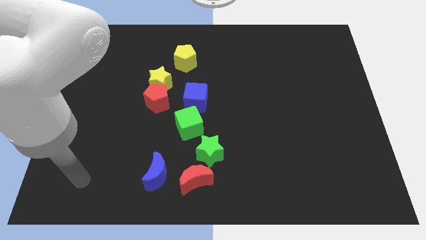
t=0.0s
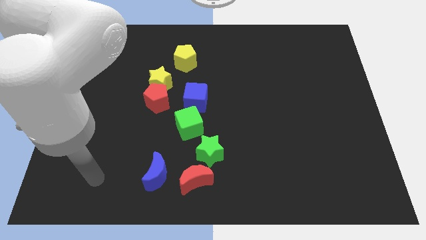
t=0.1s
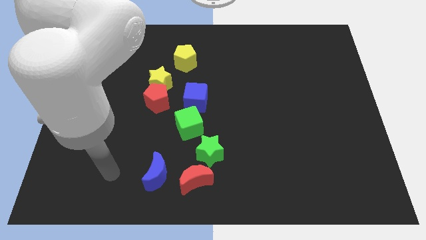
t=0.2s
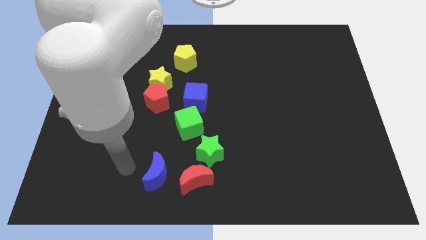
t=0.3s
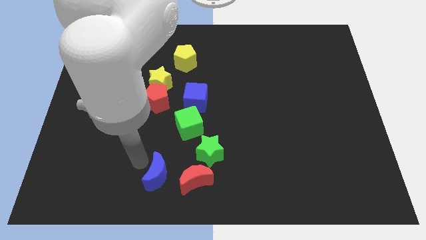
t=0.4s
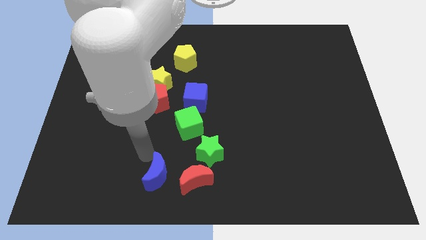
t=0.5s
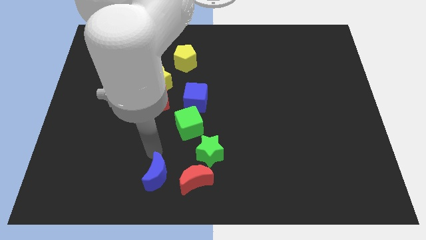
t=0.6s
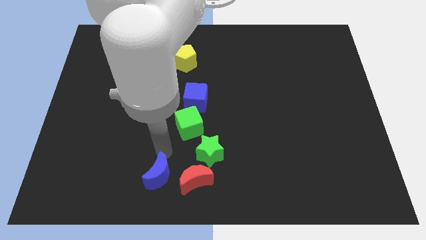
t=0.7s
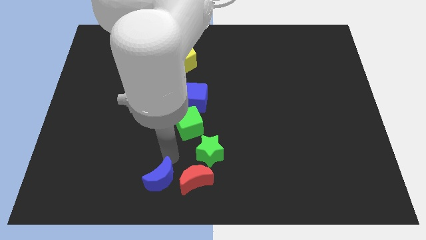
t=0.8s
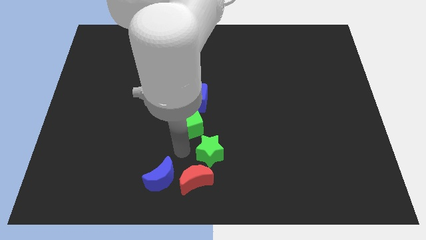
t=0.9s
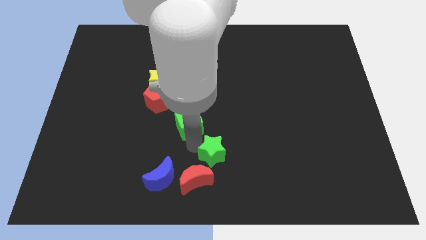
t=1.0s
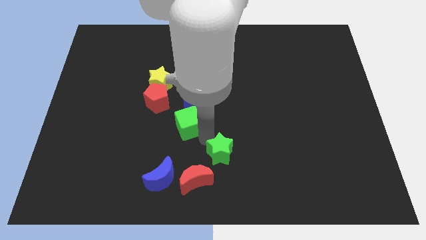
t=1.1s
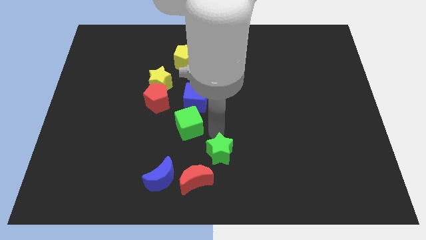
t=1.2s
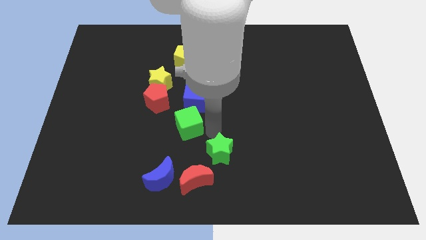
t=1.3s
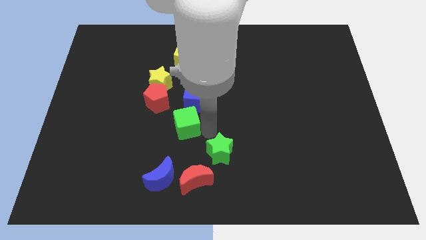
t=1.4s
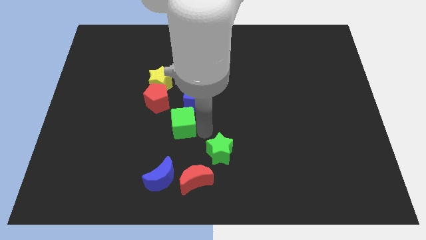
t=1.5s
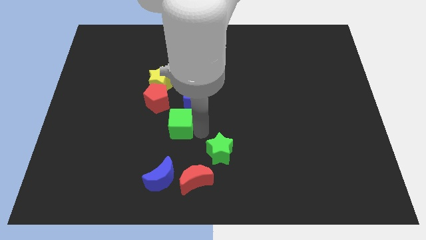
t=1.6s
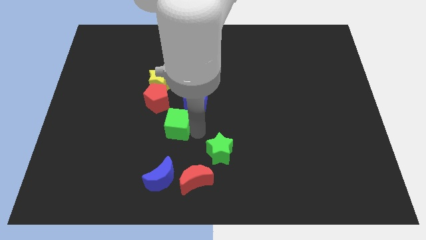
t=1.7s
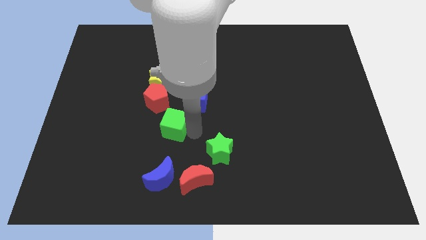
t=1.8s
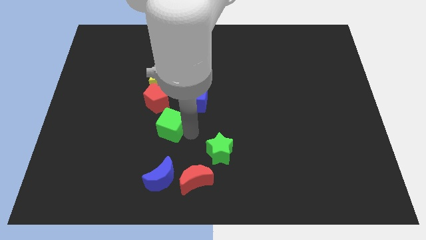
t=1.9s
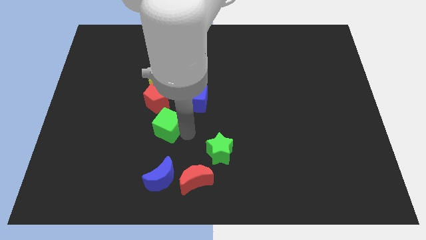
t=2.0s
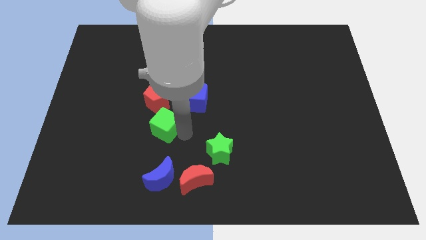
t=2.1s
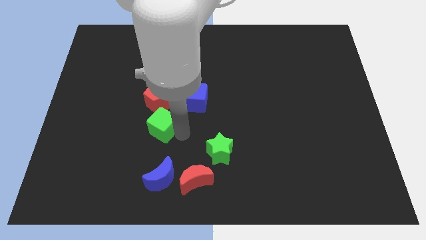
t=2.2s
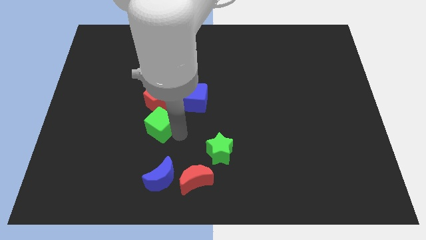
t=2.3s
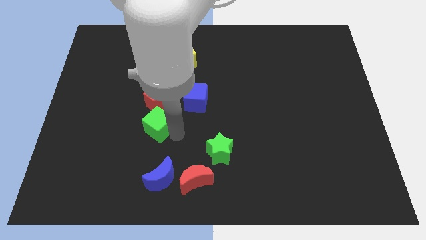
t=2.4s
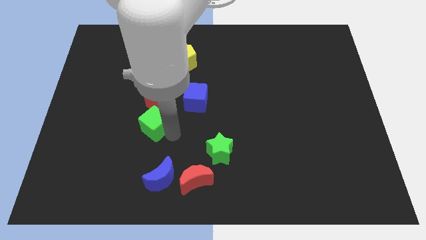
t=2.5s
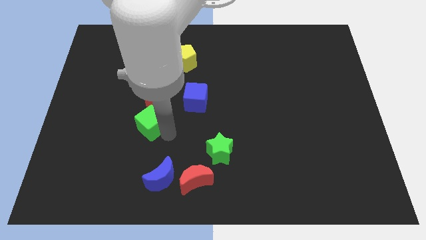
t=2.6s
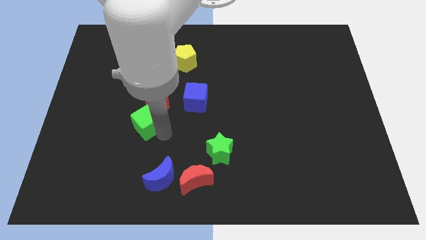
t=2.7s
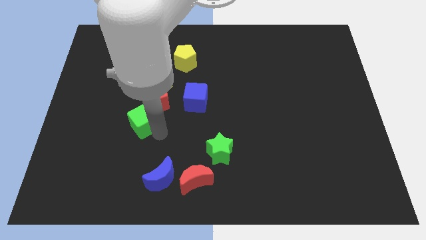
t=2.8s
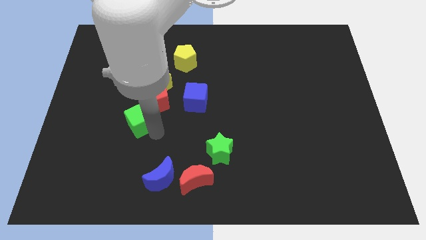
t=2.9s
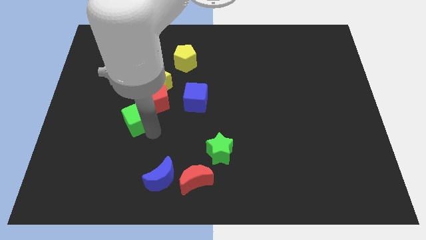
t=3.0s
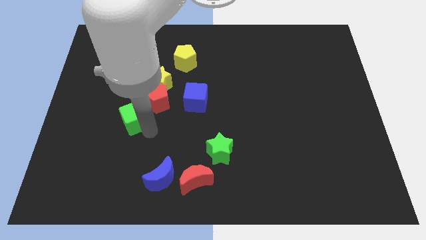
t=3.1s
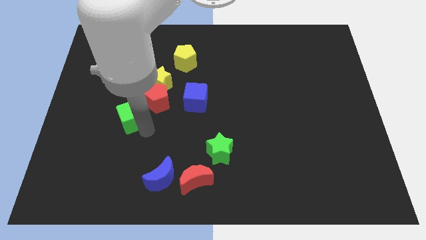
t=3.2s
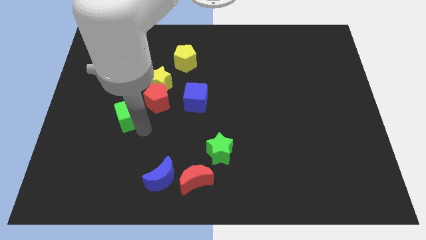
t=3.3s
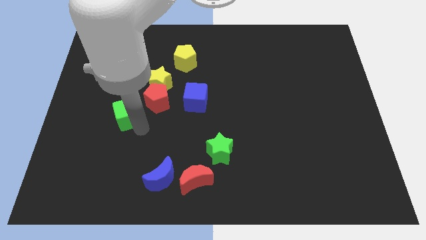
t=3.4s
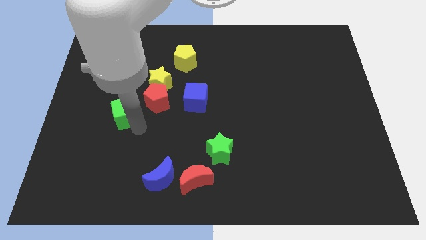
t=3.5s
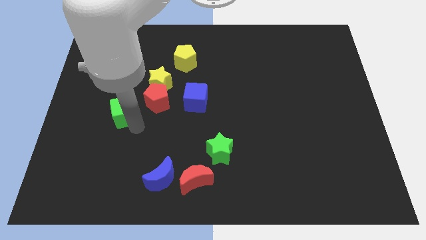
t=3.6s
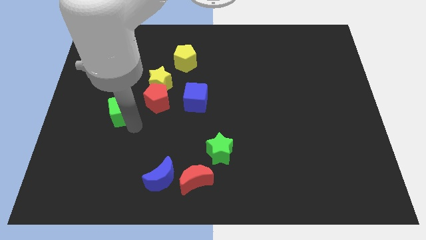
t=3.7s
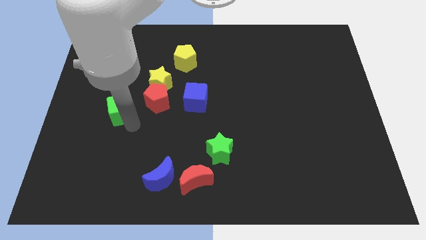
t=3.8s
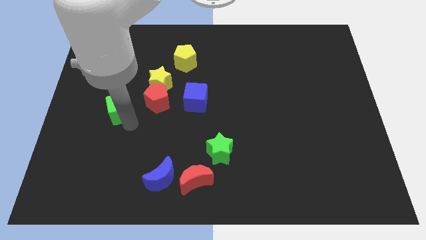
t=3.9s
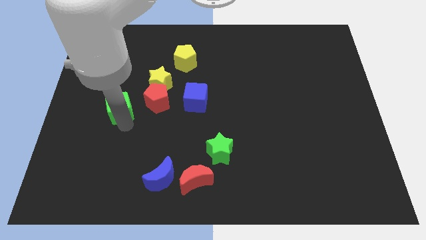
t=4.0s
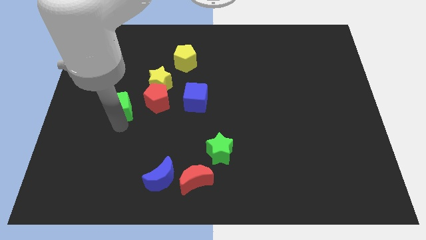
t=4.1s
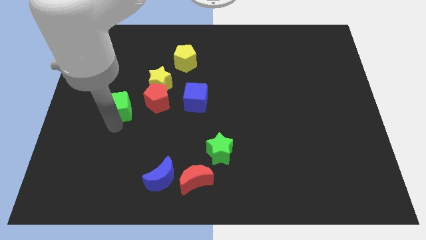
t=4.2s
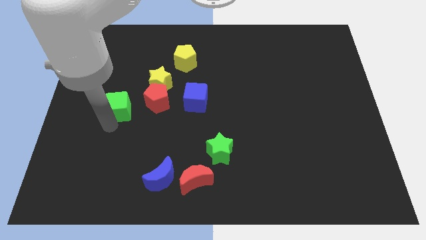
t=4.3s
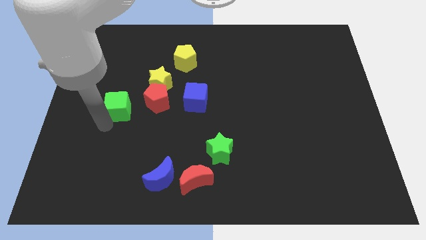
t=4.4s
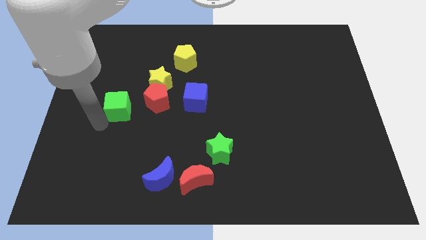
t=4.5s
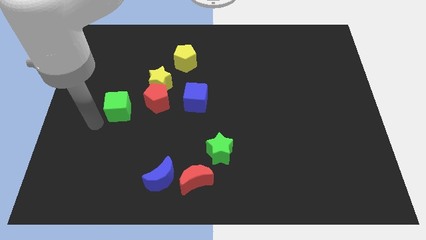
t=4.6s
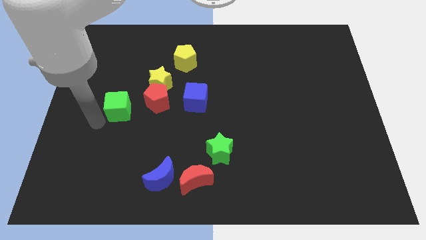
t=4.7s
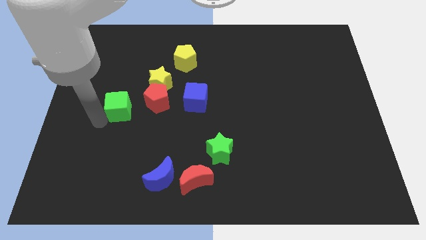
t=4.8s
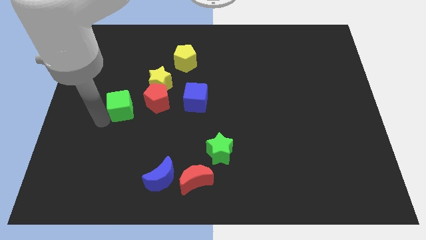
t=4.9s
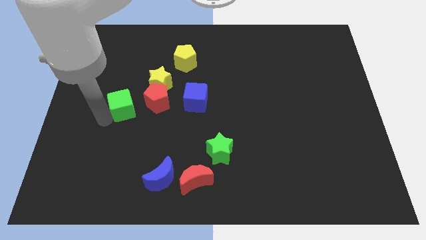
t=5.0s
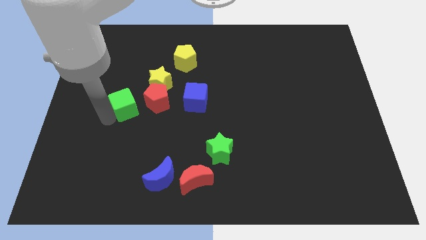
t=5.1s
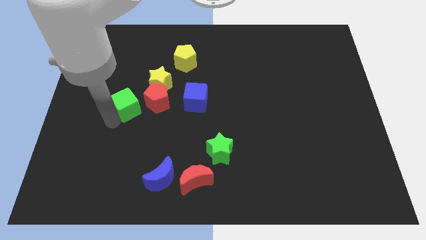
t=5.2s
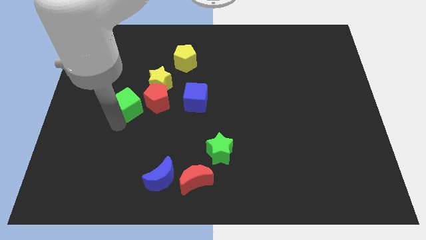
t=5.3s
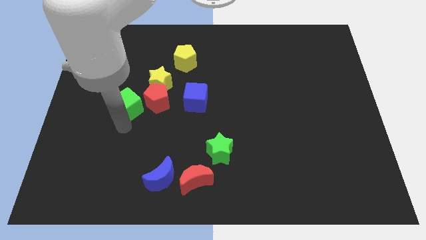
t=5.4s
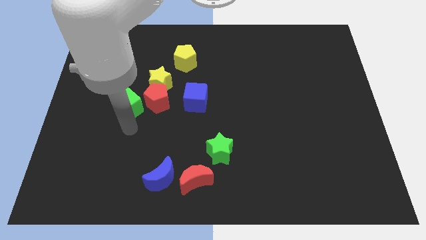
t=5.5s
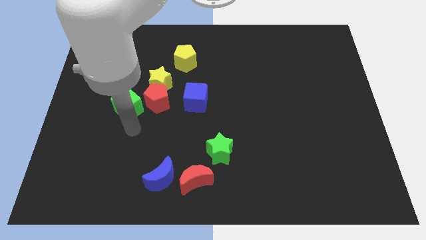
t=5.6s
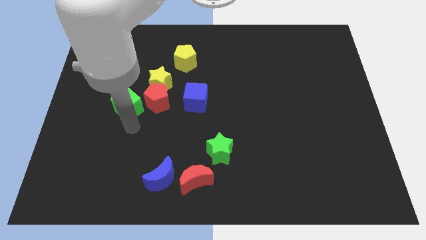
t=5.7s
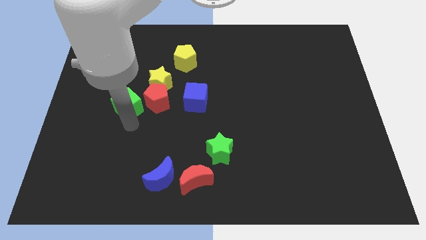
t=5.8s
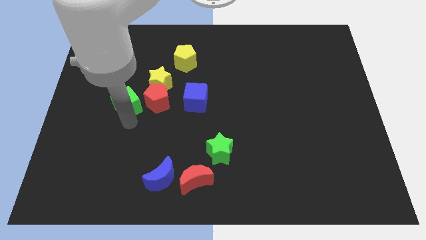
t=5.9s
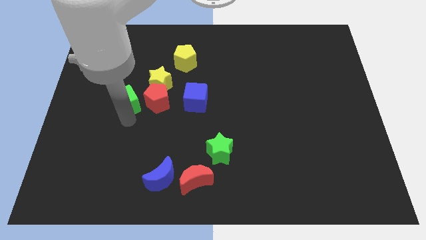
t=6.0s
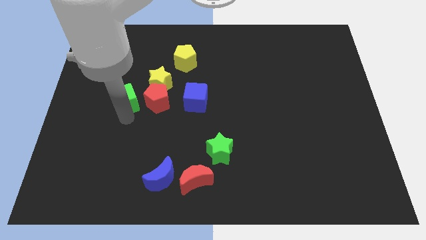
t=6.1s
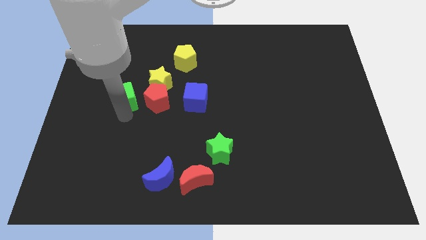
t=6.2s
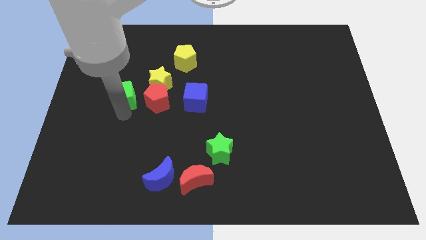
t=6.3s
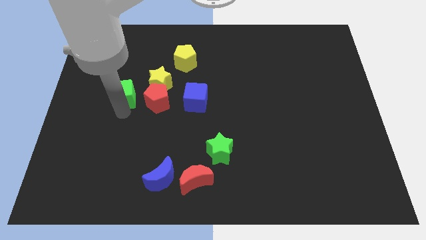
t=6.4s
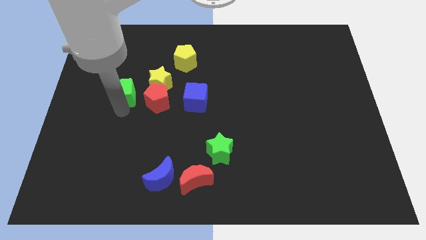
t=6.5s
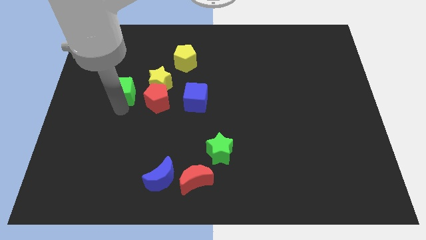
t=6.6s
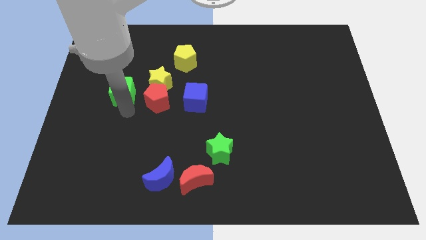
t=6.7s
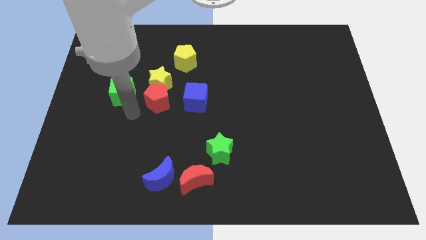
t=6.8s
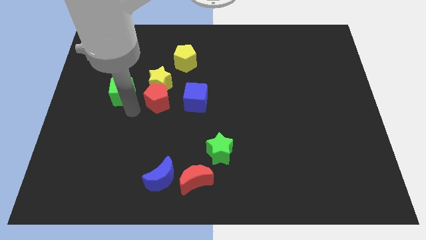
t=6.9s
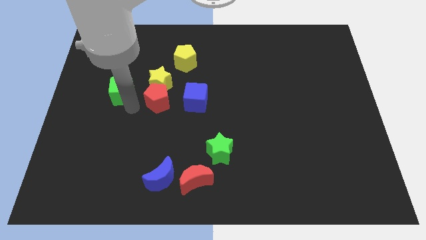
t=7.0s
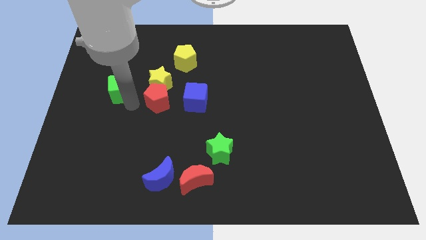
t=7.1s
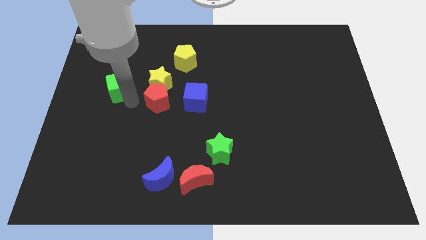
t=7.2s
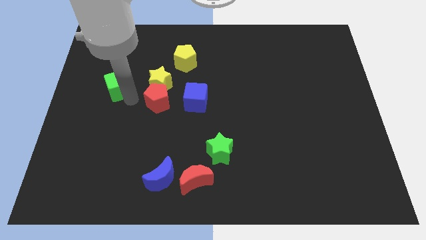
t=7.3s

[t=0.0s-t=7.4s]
move the green cube up and left diagonally

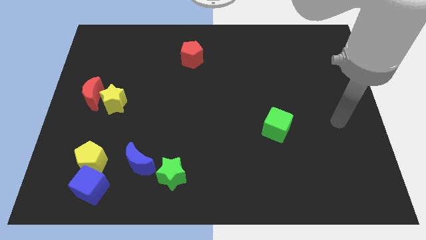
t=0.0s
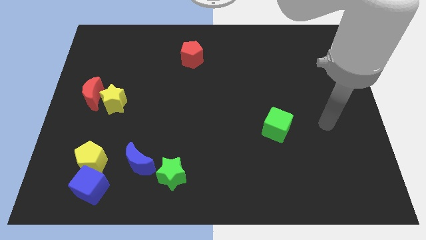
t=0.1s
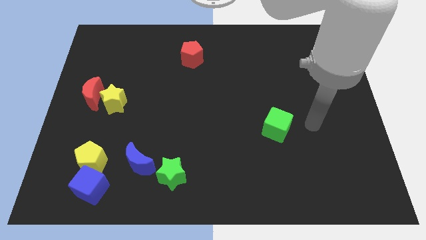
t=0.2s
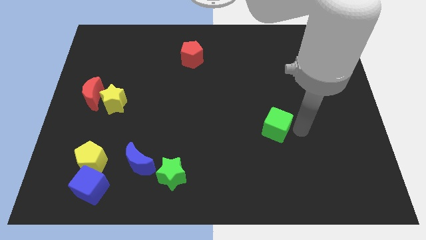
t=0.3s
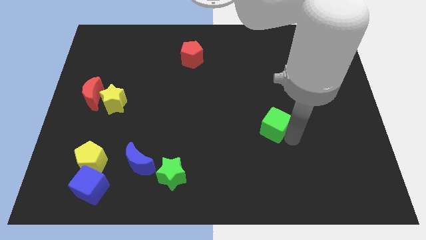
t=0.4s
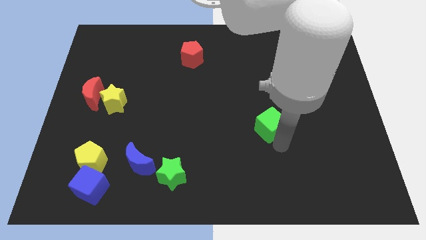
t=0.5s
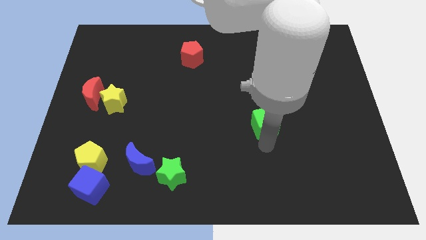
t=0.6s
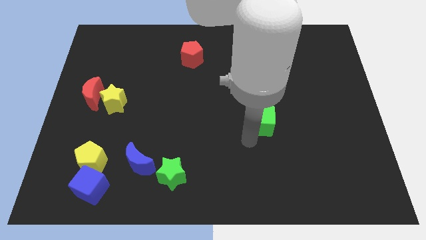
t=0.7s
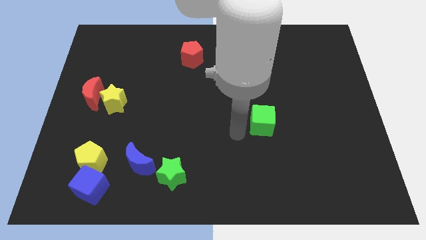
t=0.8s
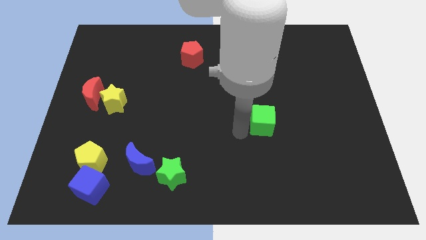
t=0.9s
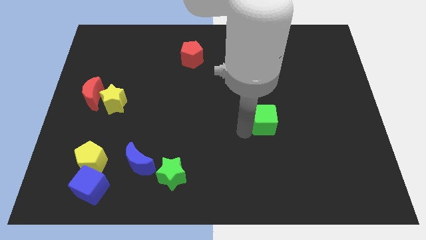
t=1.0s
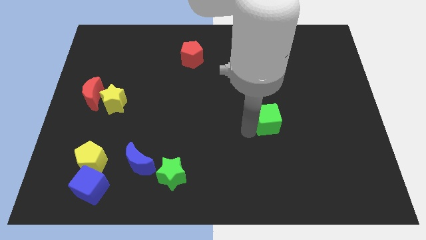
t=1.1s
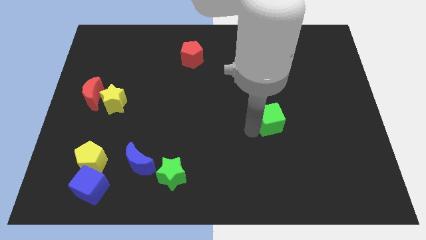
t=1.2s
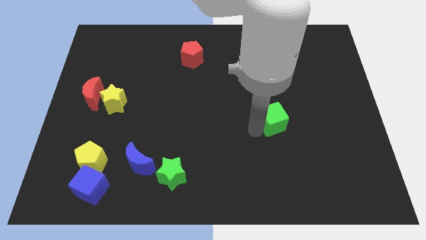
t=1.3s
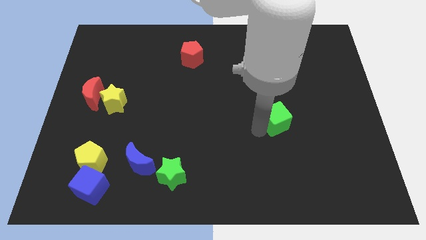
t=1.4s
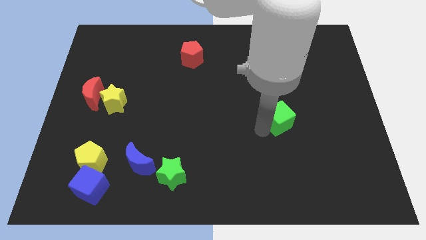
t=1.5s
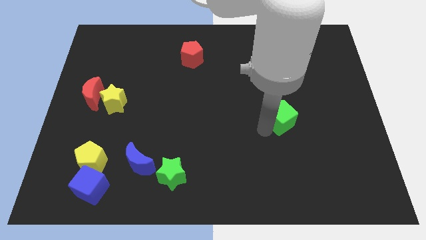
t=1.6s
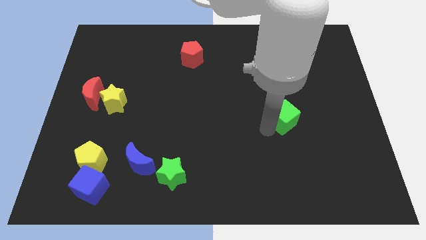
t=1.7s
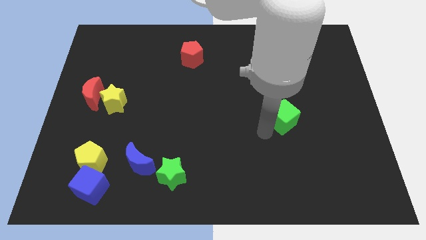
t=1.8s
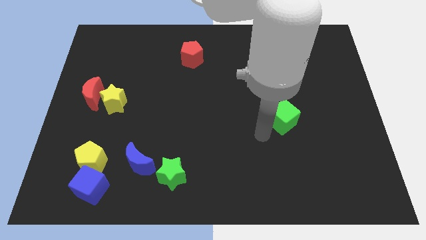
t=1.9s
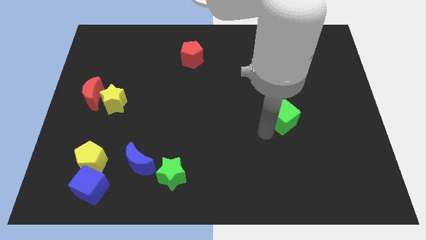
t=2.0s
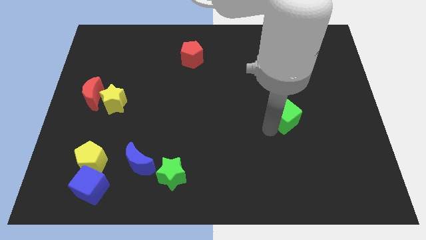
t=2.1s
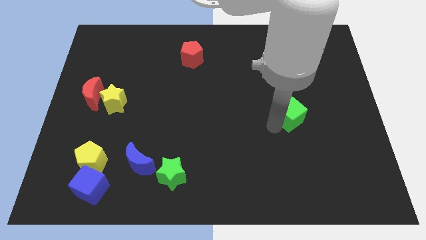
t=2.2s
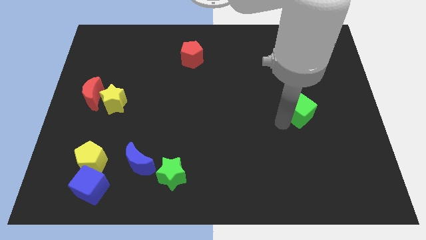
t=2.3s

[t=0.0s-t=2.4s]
slide the green cube up and right a bit
